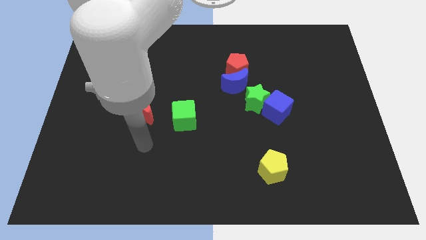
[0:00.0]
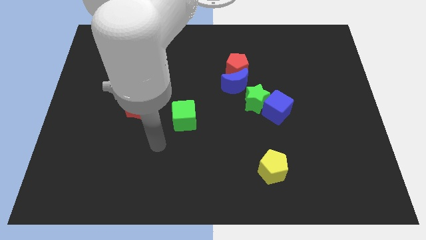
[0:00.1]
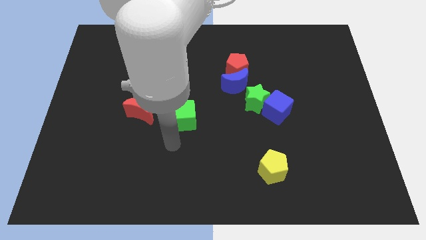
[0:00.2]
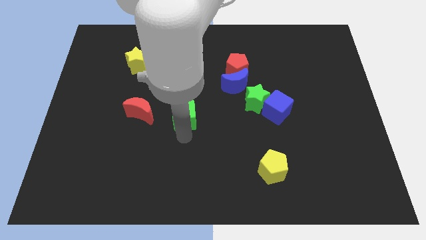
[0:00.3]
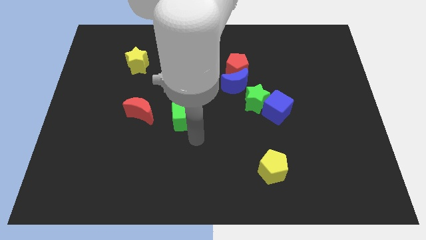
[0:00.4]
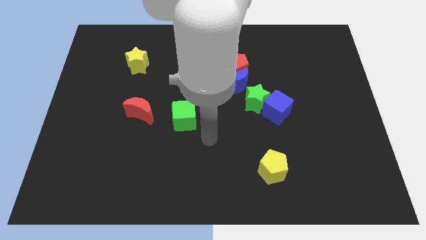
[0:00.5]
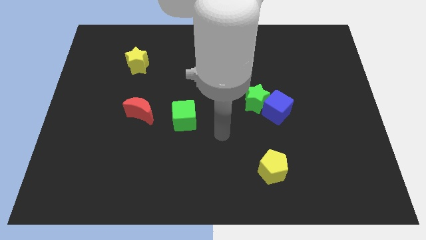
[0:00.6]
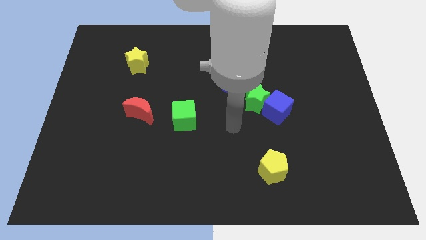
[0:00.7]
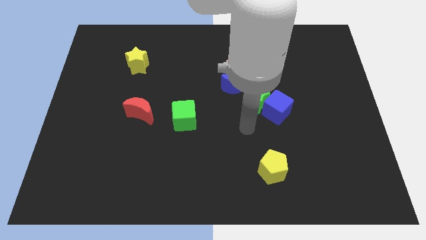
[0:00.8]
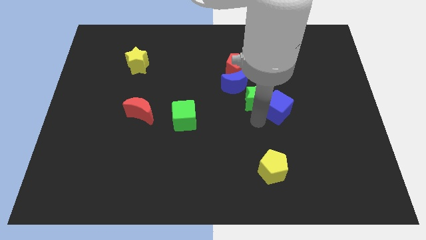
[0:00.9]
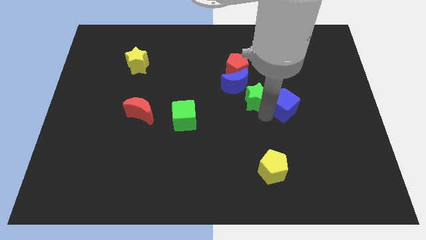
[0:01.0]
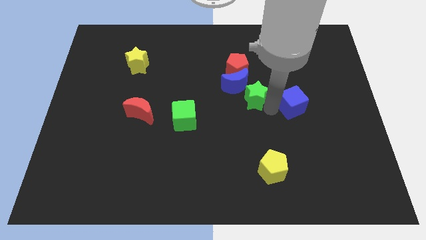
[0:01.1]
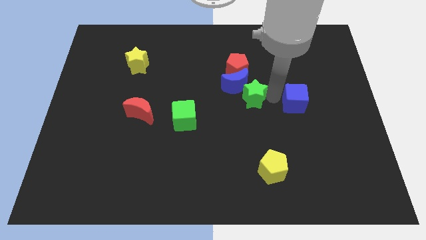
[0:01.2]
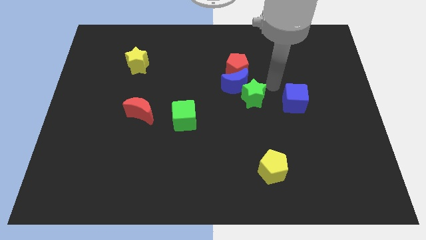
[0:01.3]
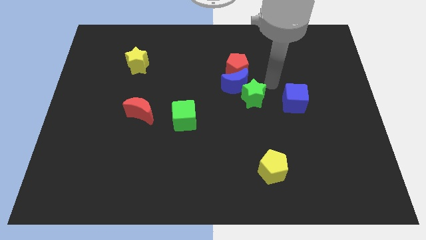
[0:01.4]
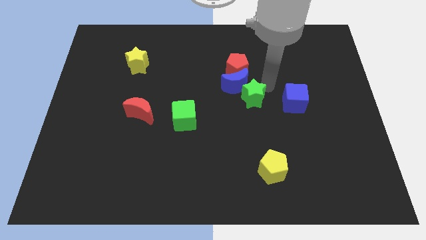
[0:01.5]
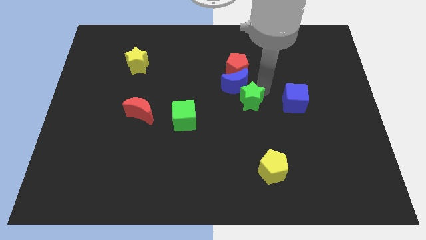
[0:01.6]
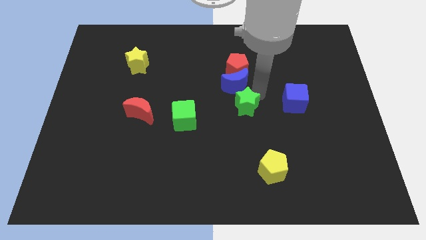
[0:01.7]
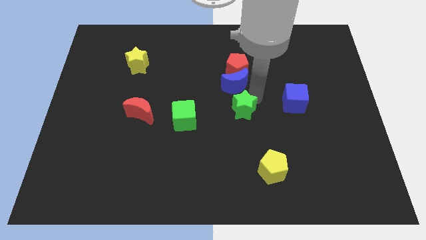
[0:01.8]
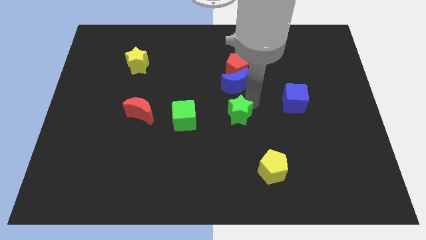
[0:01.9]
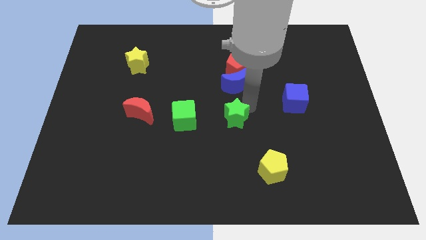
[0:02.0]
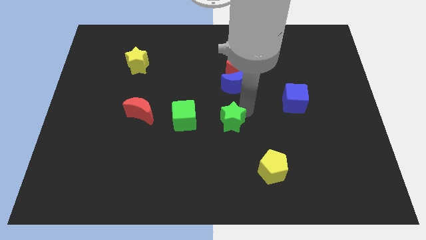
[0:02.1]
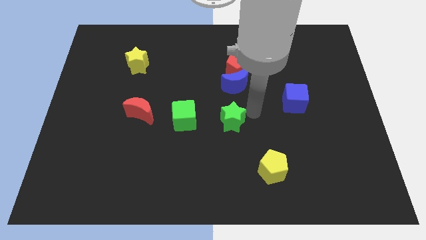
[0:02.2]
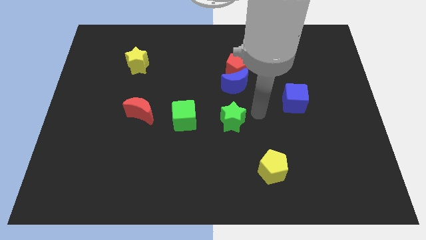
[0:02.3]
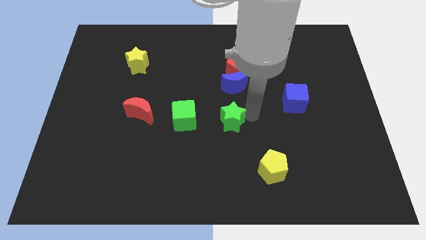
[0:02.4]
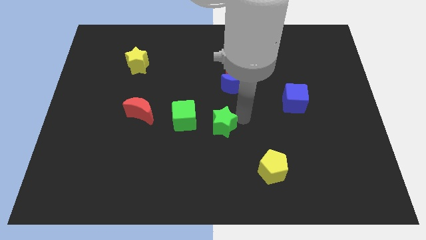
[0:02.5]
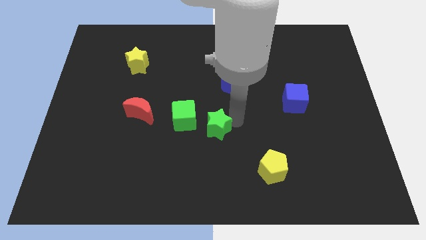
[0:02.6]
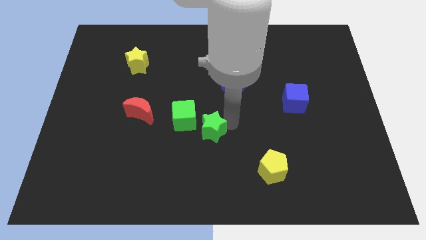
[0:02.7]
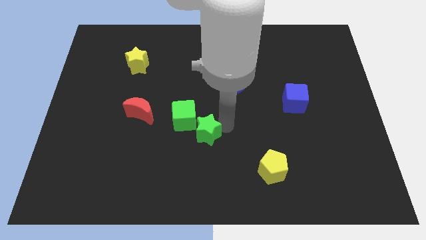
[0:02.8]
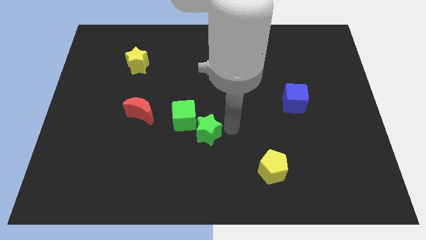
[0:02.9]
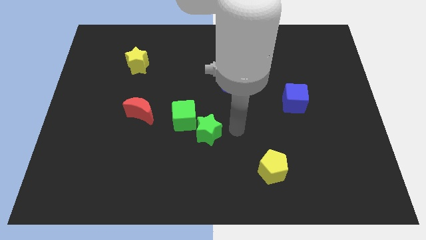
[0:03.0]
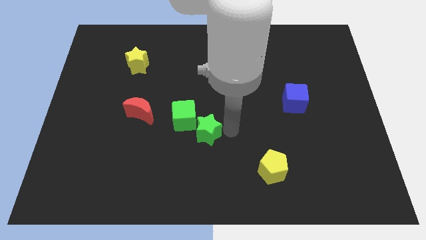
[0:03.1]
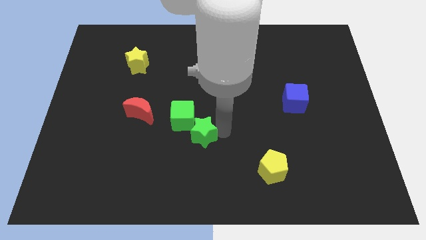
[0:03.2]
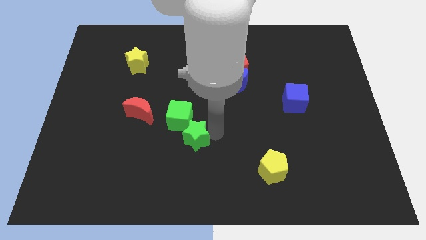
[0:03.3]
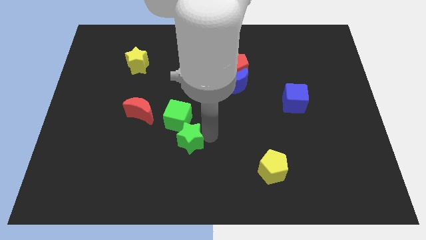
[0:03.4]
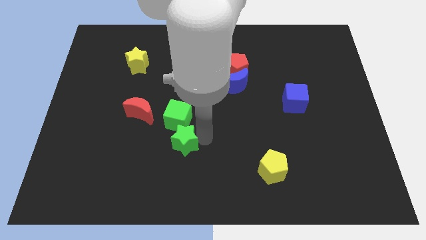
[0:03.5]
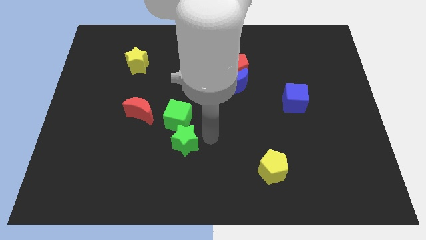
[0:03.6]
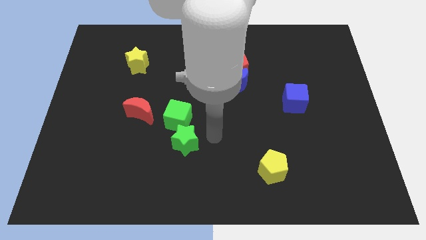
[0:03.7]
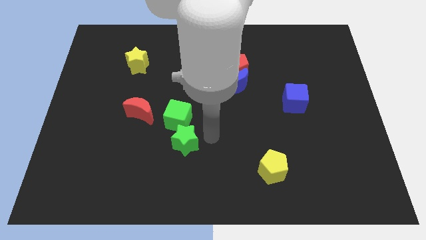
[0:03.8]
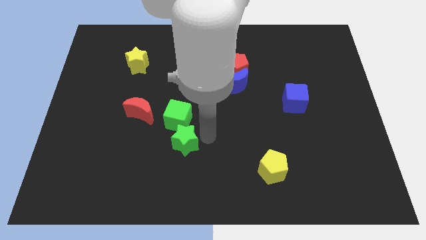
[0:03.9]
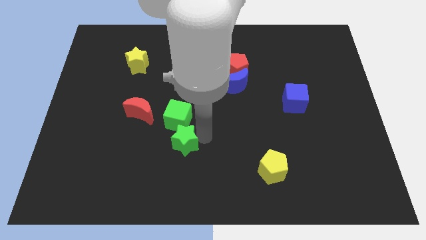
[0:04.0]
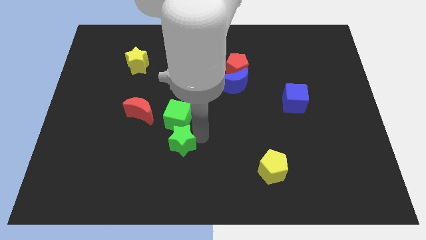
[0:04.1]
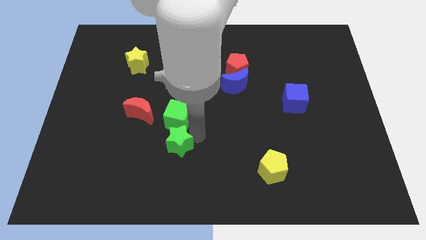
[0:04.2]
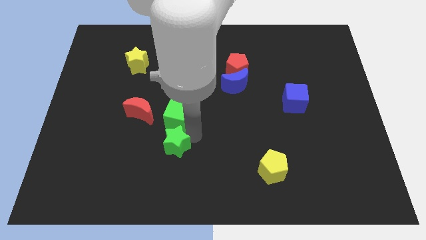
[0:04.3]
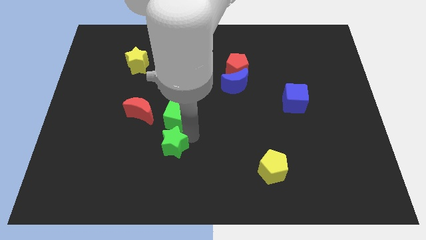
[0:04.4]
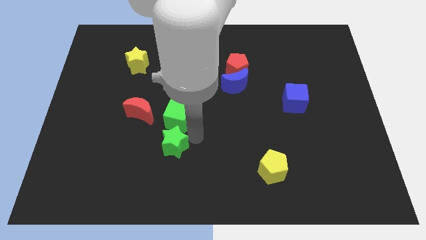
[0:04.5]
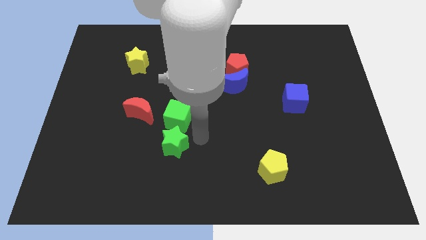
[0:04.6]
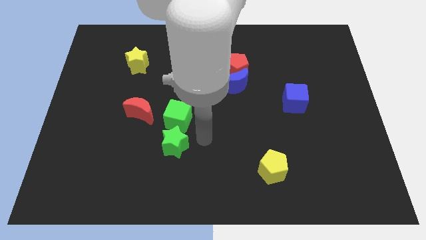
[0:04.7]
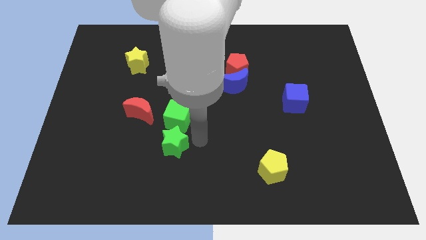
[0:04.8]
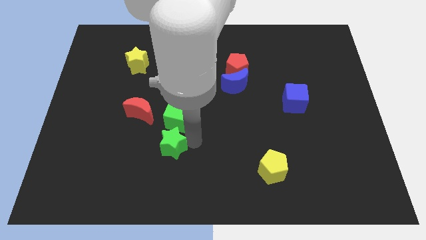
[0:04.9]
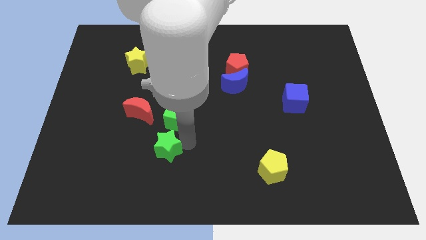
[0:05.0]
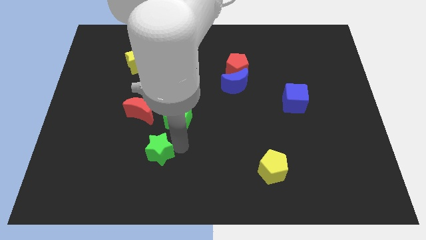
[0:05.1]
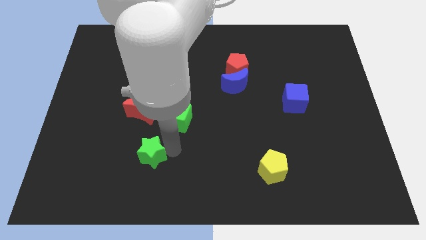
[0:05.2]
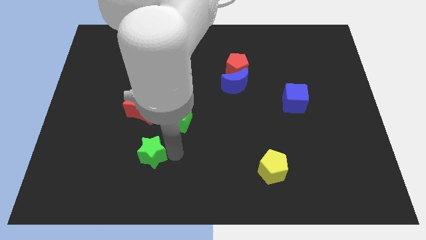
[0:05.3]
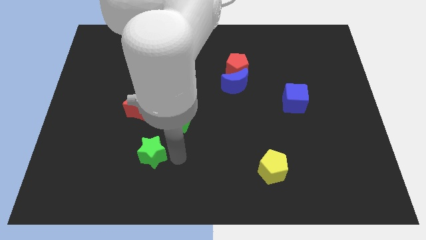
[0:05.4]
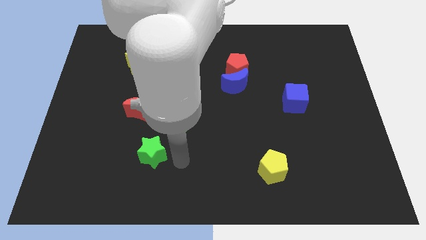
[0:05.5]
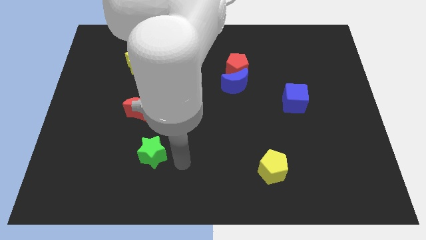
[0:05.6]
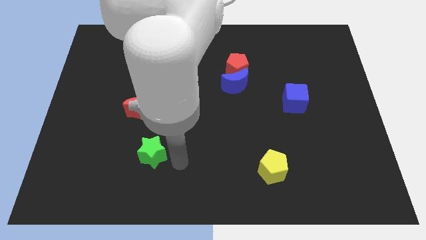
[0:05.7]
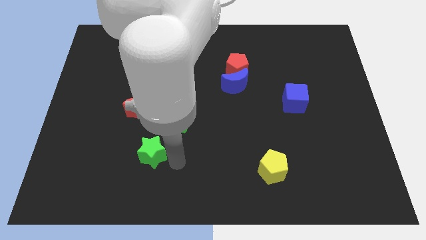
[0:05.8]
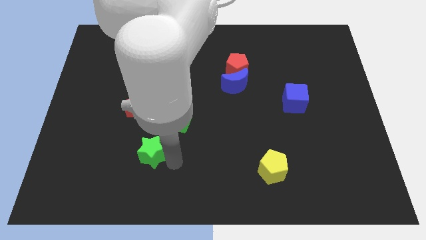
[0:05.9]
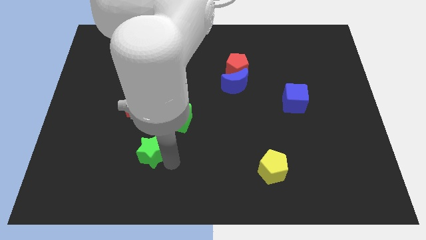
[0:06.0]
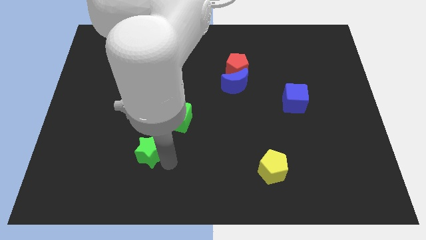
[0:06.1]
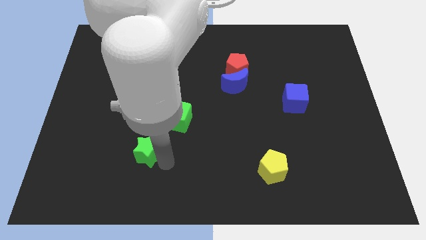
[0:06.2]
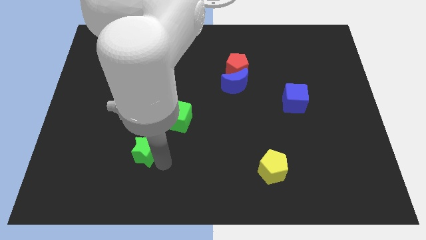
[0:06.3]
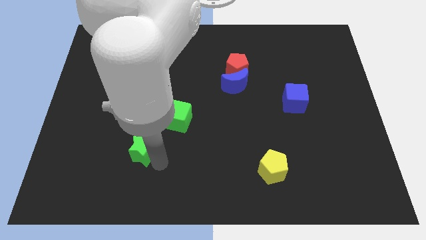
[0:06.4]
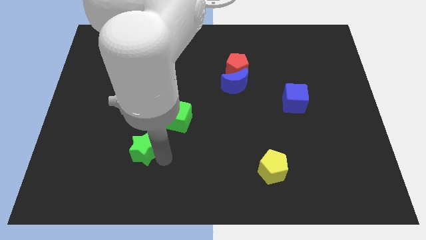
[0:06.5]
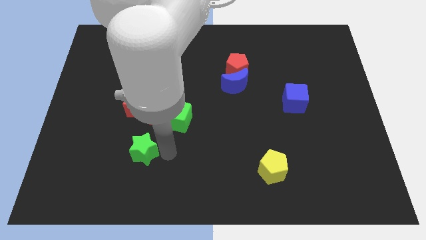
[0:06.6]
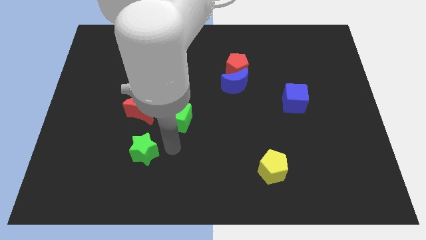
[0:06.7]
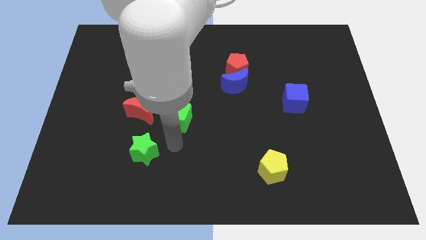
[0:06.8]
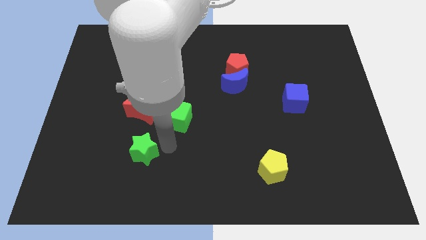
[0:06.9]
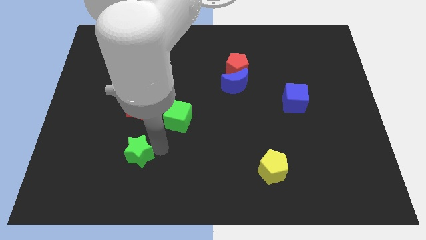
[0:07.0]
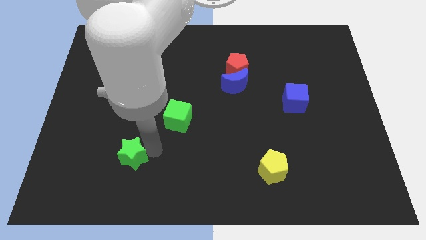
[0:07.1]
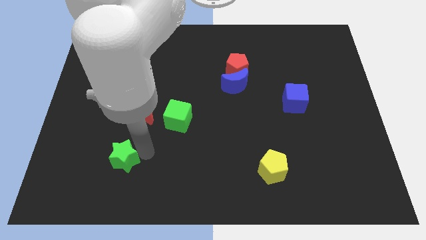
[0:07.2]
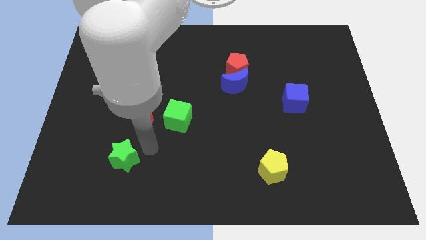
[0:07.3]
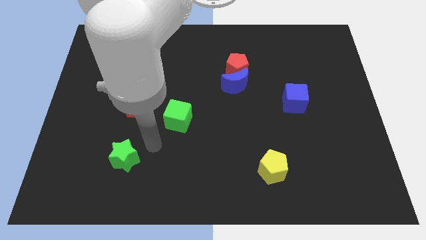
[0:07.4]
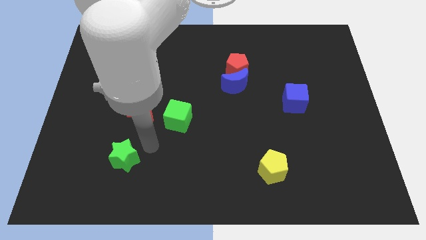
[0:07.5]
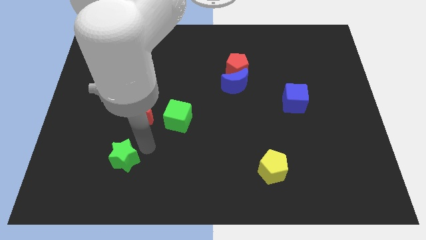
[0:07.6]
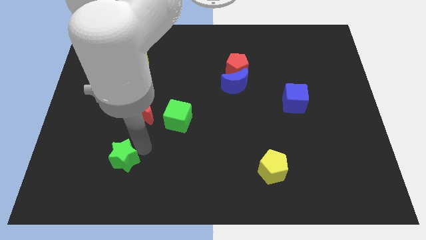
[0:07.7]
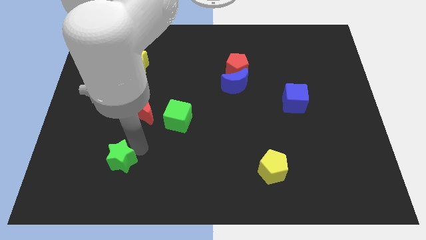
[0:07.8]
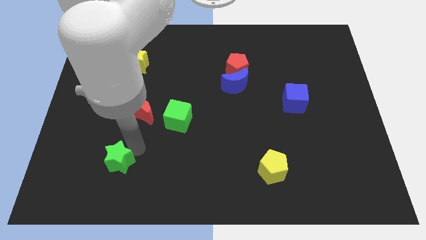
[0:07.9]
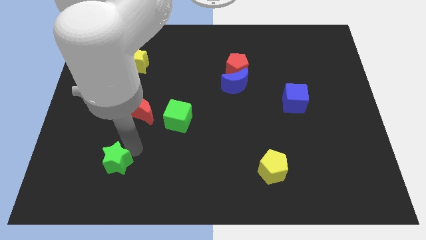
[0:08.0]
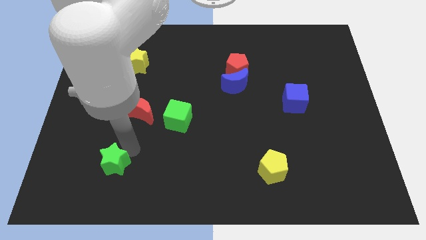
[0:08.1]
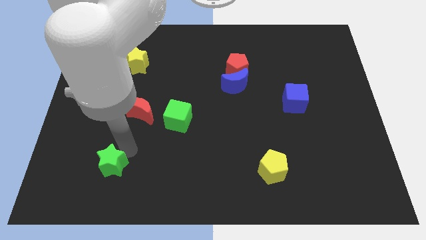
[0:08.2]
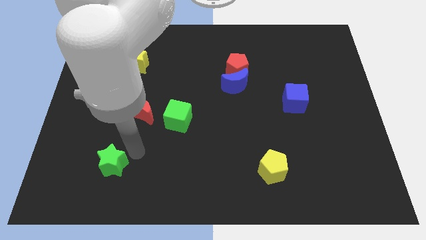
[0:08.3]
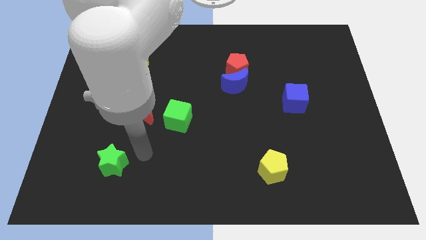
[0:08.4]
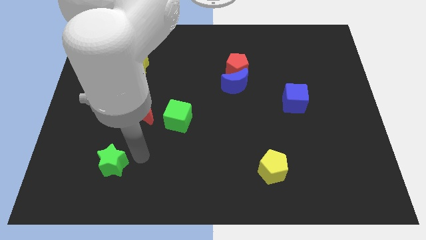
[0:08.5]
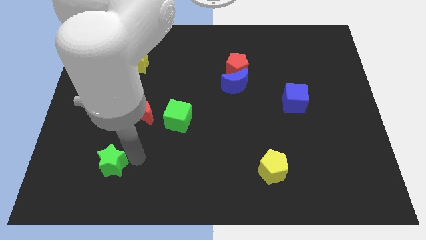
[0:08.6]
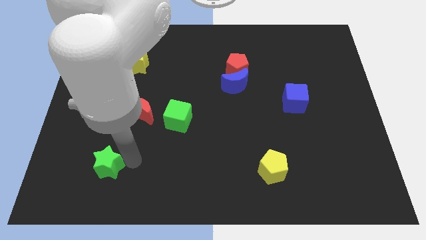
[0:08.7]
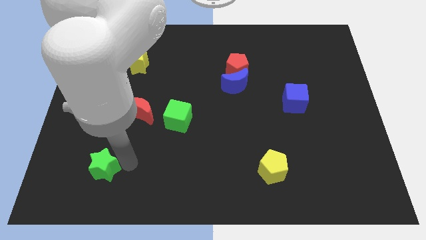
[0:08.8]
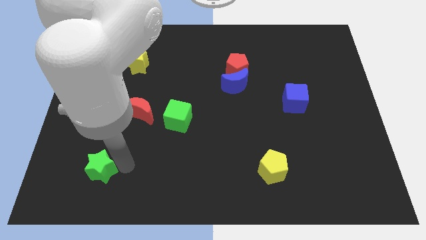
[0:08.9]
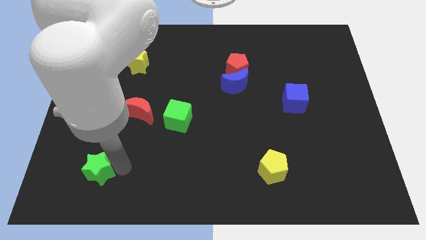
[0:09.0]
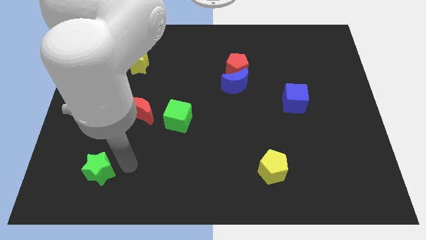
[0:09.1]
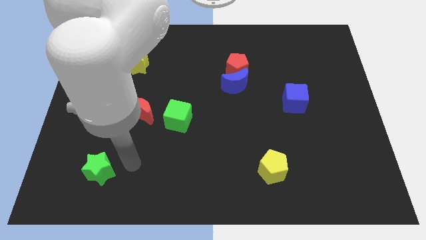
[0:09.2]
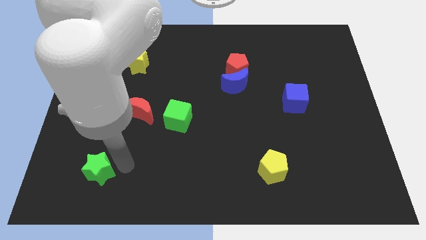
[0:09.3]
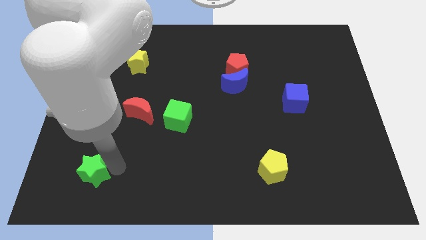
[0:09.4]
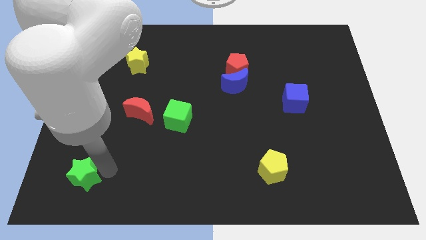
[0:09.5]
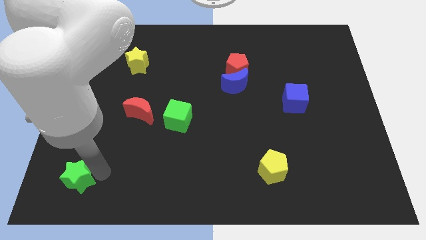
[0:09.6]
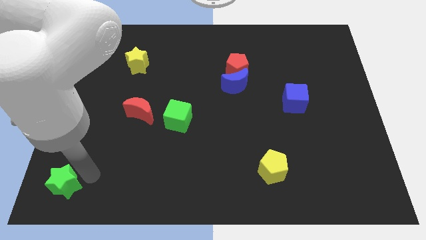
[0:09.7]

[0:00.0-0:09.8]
put the green star to the bottom left of the board
